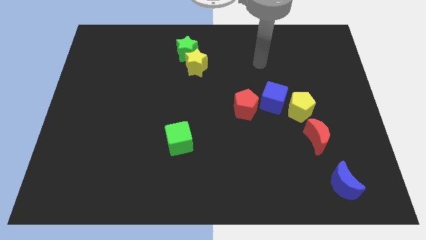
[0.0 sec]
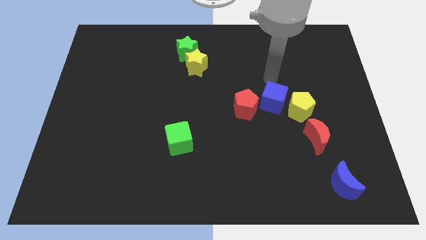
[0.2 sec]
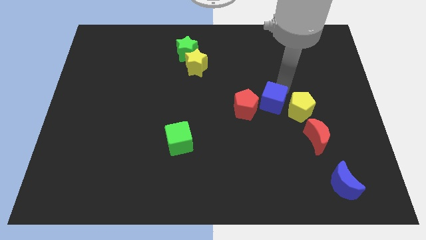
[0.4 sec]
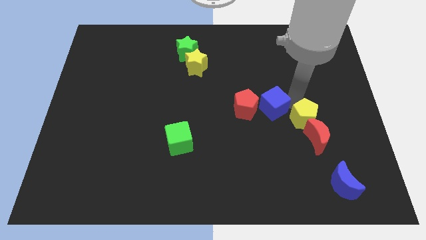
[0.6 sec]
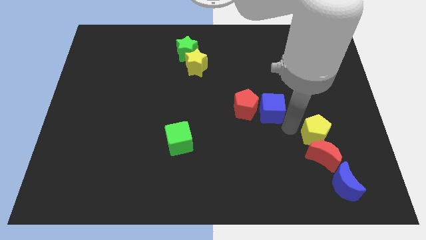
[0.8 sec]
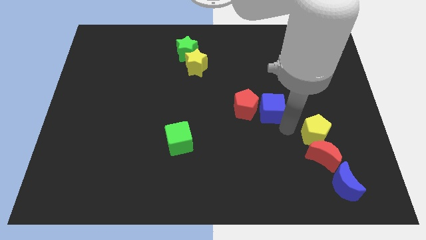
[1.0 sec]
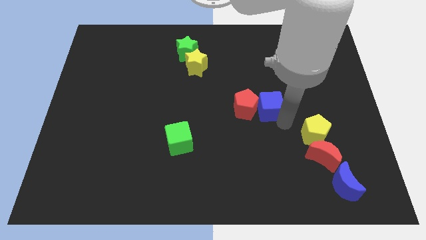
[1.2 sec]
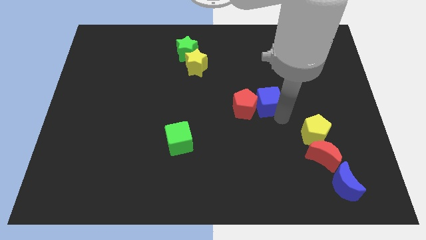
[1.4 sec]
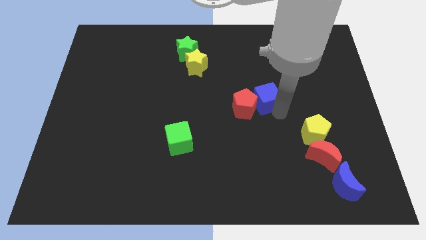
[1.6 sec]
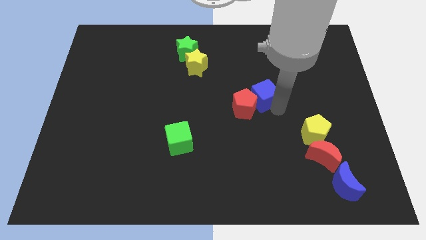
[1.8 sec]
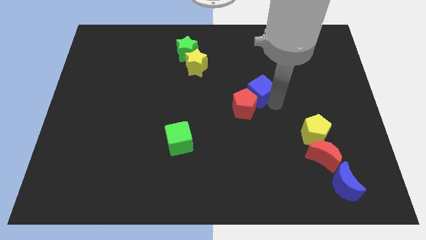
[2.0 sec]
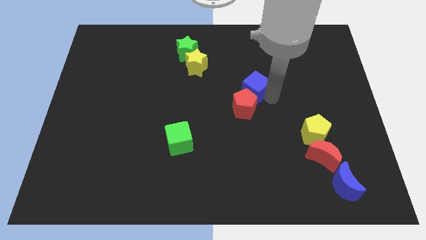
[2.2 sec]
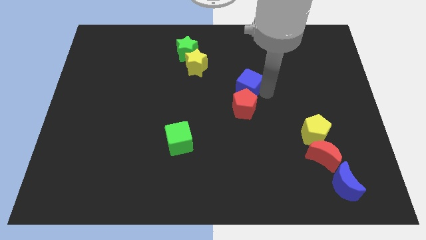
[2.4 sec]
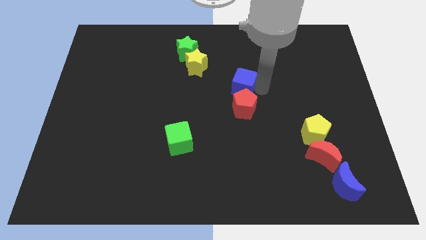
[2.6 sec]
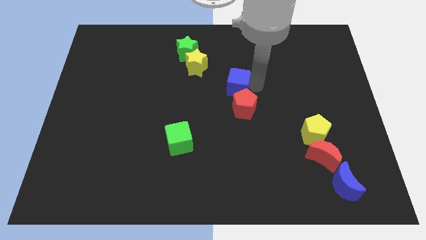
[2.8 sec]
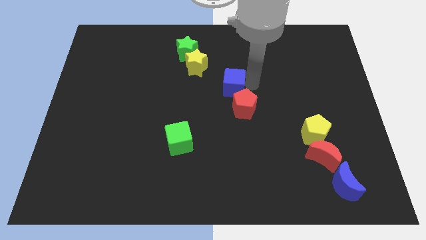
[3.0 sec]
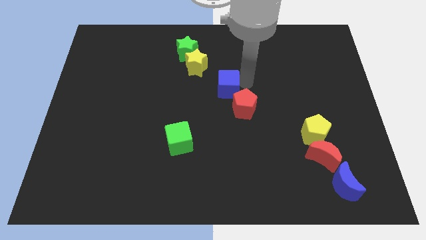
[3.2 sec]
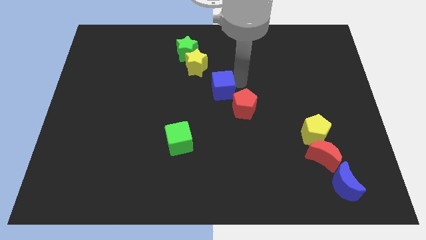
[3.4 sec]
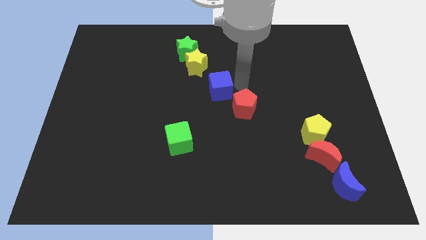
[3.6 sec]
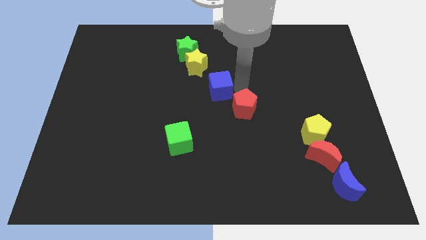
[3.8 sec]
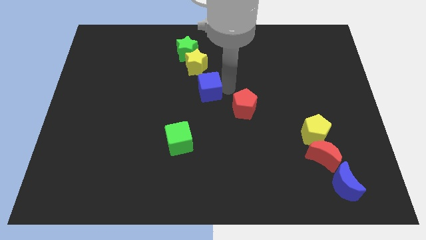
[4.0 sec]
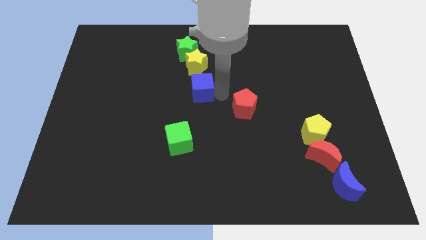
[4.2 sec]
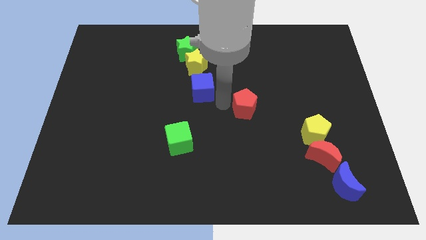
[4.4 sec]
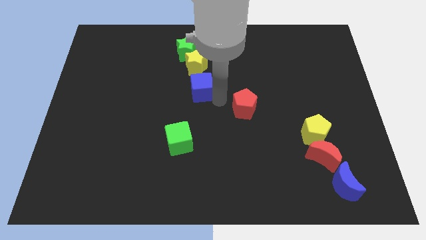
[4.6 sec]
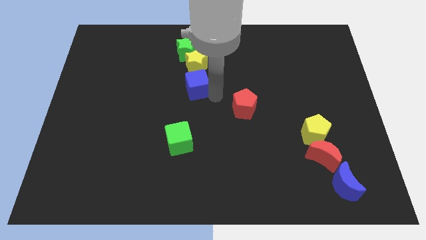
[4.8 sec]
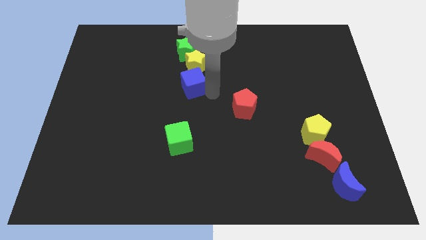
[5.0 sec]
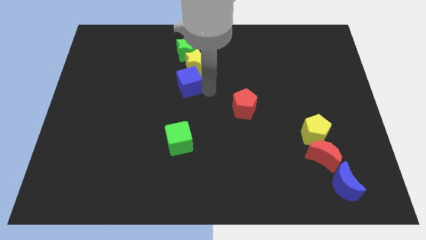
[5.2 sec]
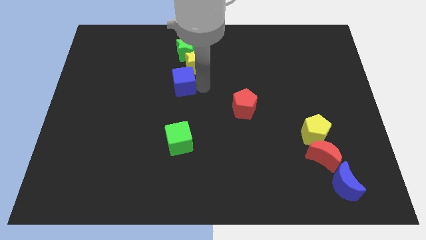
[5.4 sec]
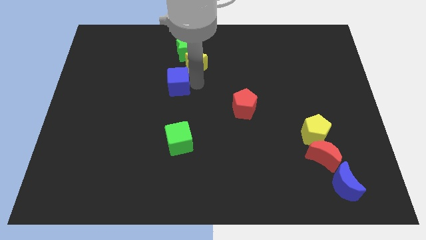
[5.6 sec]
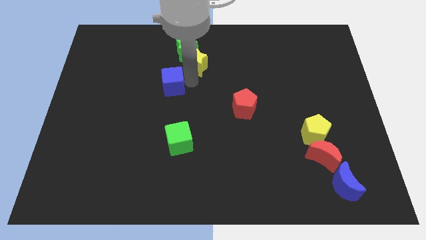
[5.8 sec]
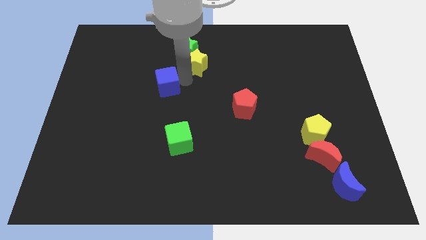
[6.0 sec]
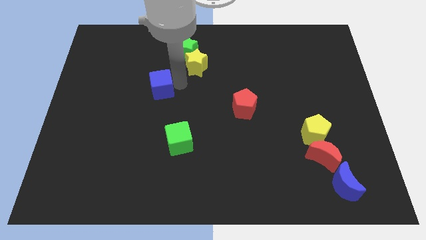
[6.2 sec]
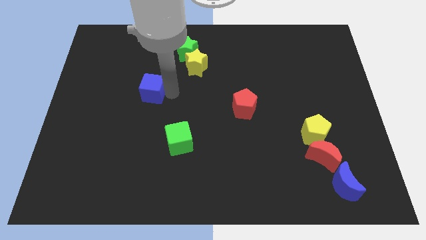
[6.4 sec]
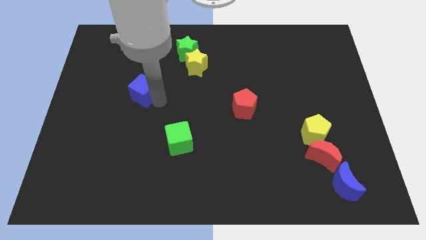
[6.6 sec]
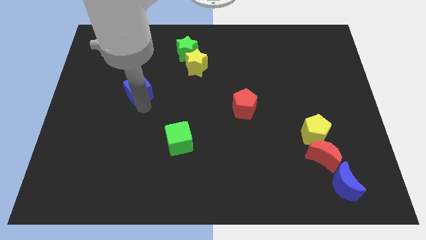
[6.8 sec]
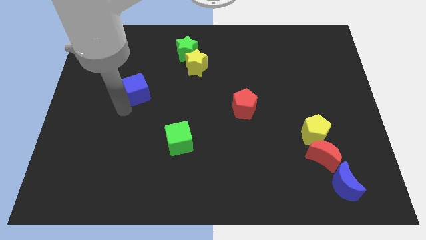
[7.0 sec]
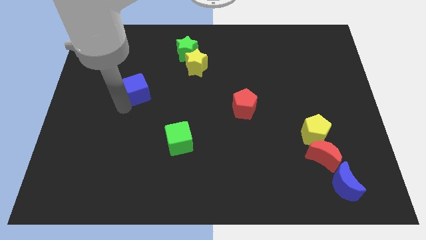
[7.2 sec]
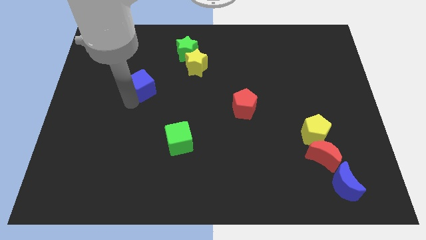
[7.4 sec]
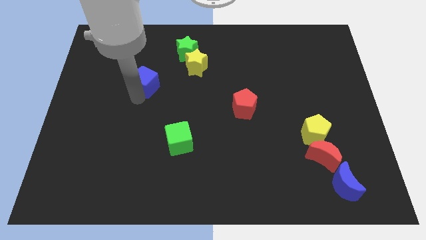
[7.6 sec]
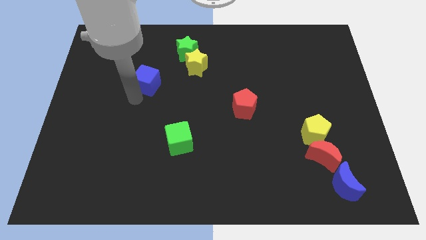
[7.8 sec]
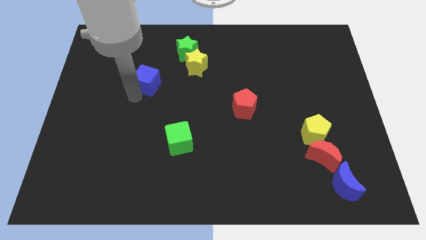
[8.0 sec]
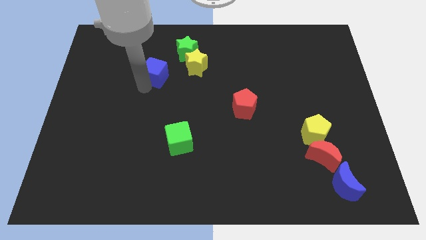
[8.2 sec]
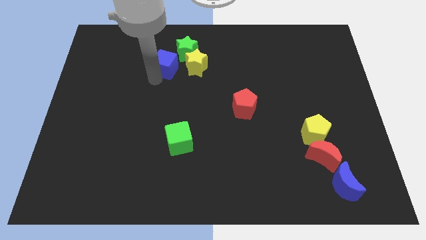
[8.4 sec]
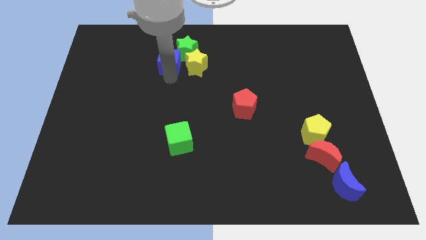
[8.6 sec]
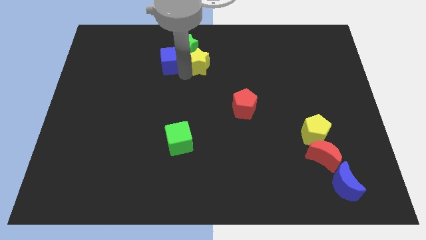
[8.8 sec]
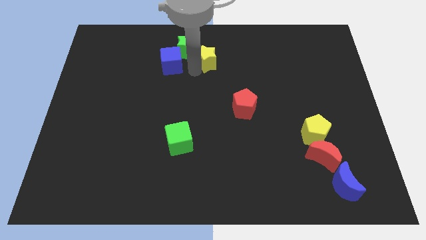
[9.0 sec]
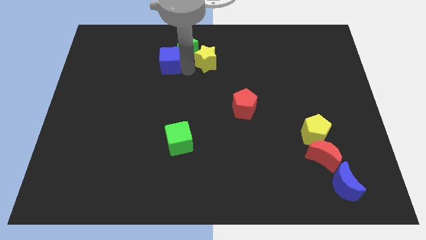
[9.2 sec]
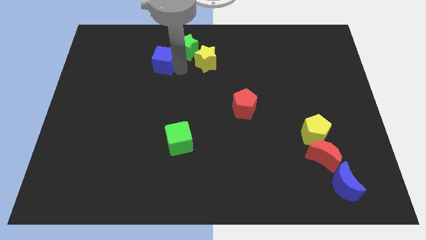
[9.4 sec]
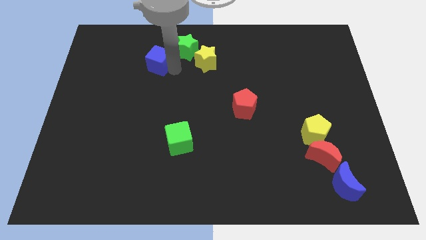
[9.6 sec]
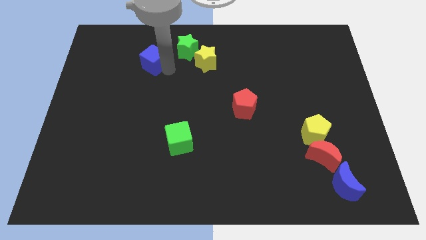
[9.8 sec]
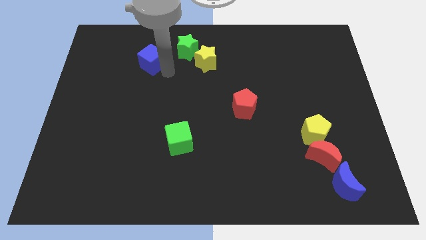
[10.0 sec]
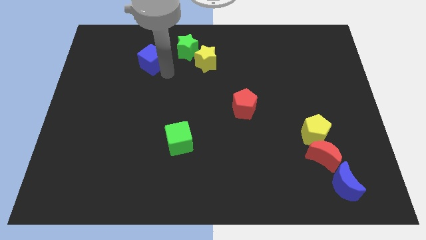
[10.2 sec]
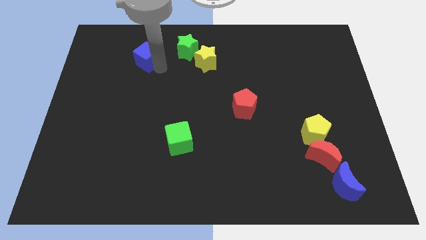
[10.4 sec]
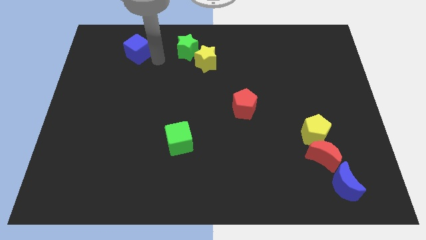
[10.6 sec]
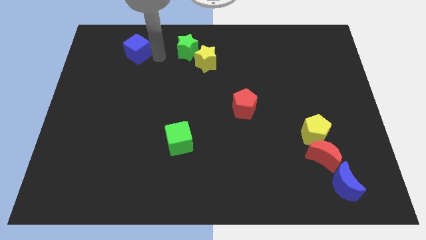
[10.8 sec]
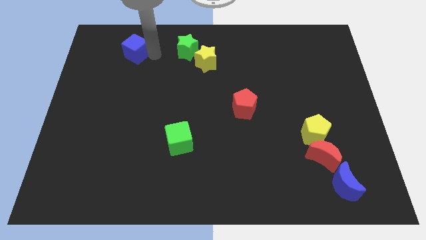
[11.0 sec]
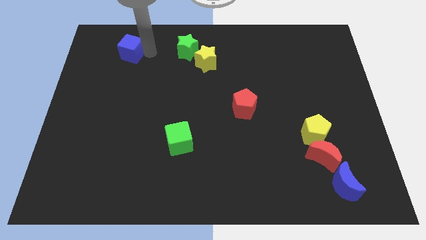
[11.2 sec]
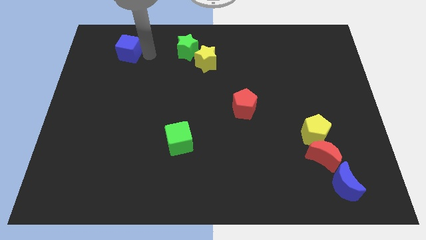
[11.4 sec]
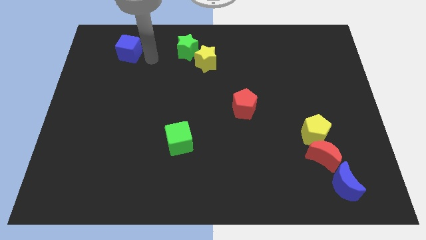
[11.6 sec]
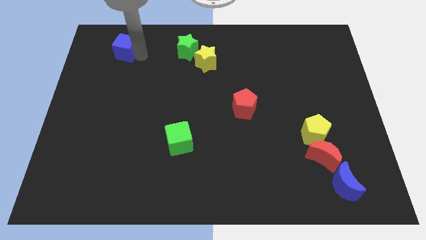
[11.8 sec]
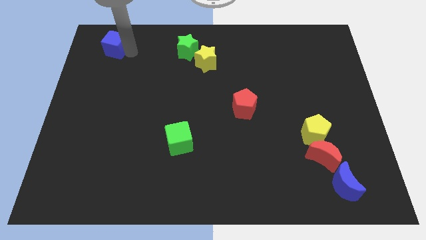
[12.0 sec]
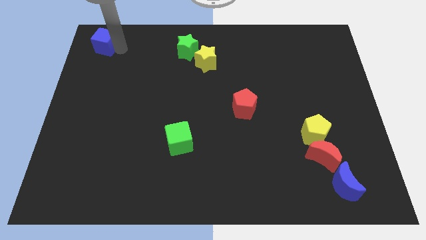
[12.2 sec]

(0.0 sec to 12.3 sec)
put the blue cube to the top left corner
